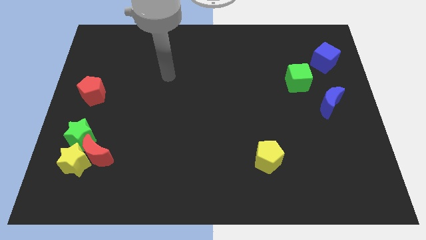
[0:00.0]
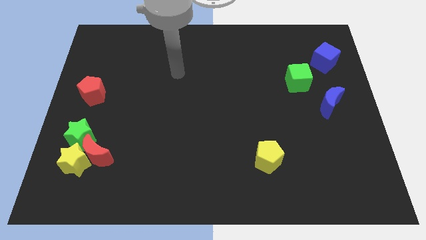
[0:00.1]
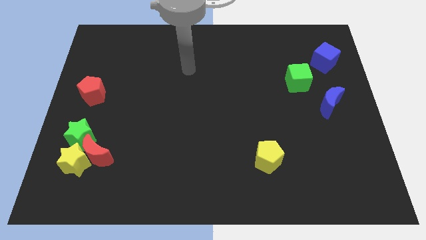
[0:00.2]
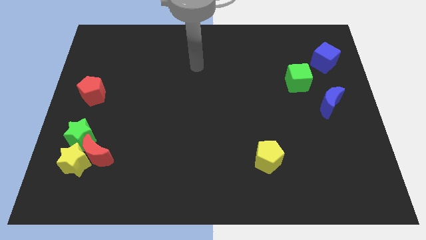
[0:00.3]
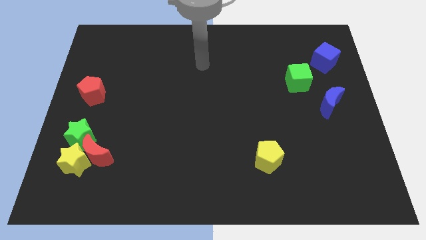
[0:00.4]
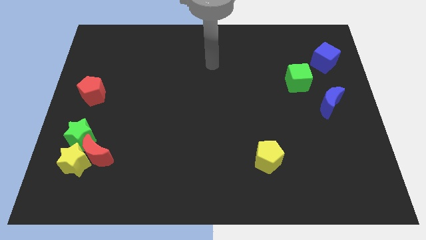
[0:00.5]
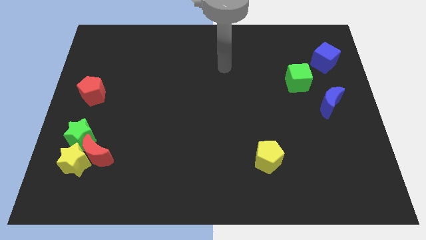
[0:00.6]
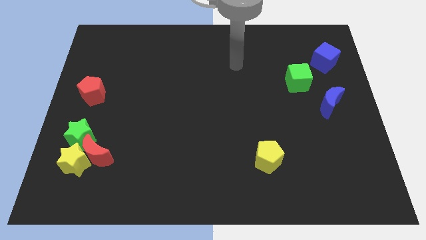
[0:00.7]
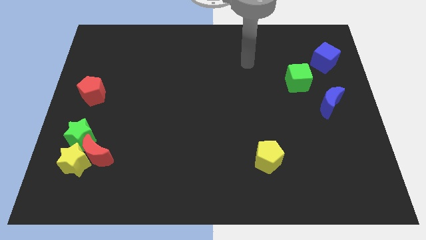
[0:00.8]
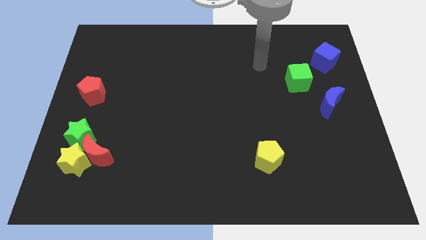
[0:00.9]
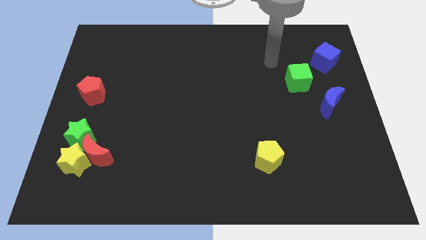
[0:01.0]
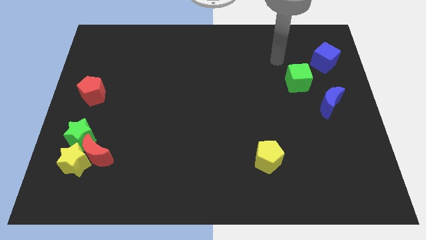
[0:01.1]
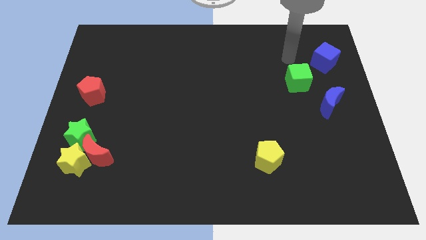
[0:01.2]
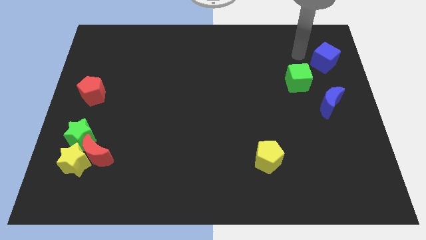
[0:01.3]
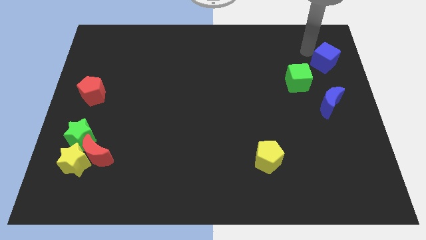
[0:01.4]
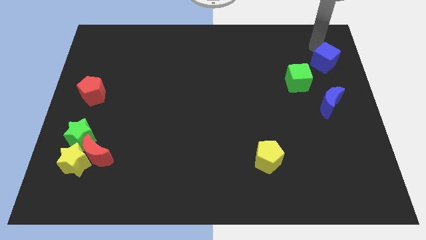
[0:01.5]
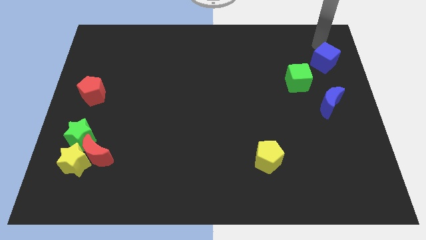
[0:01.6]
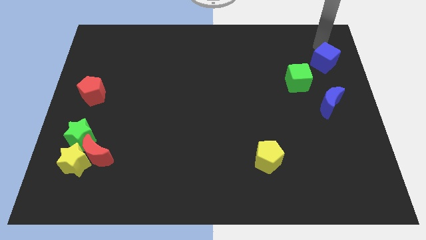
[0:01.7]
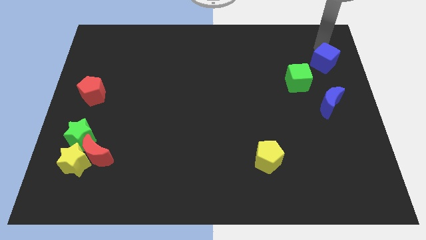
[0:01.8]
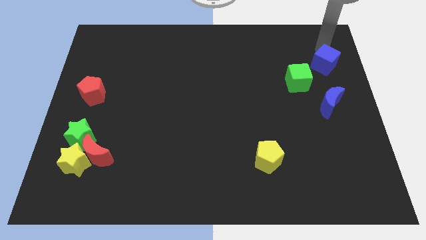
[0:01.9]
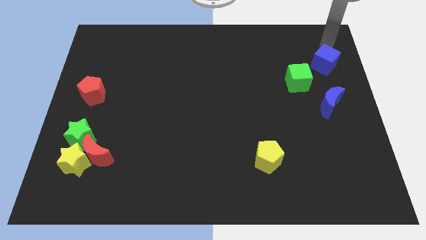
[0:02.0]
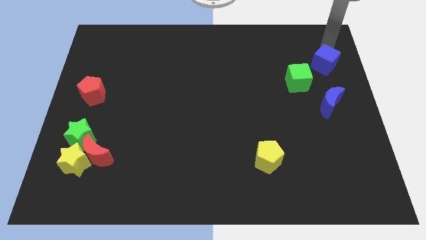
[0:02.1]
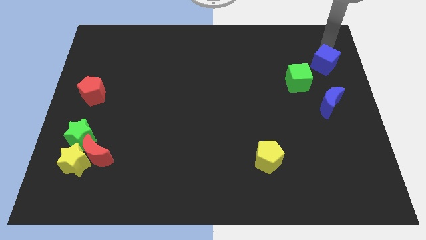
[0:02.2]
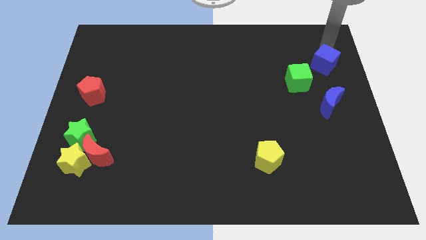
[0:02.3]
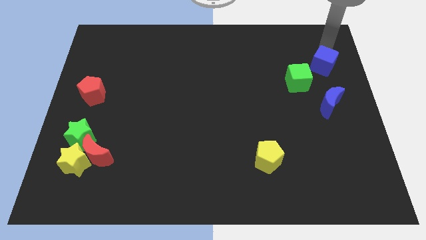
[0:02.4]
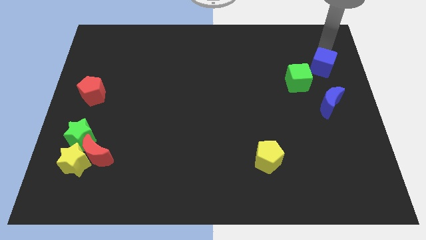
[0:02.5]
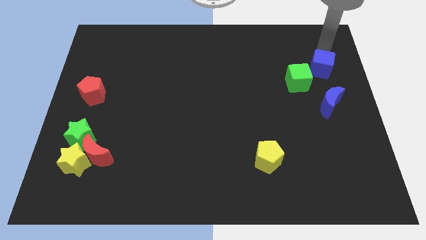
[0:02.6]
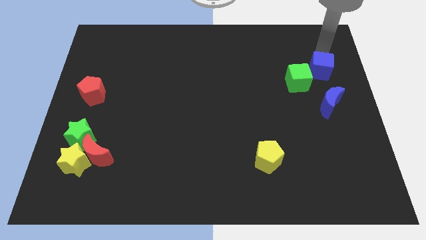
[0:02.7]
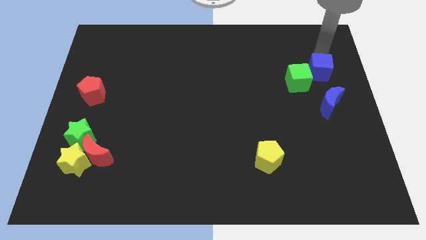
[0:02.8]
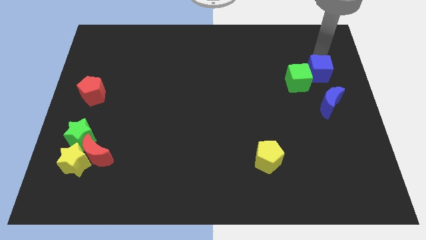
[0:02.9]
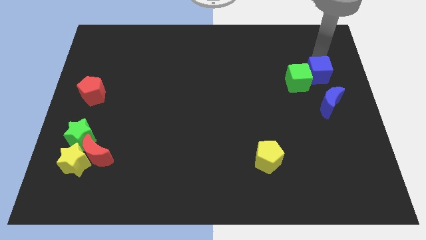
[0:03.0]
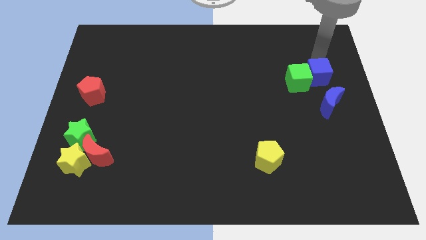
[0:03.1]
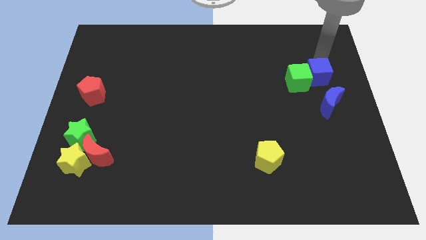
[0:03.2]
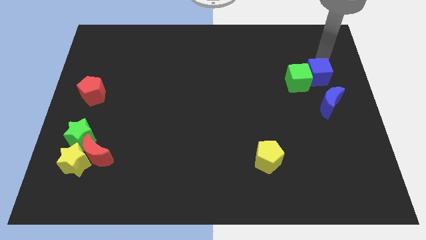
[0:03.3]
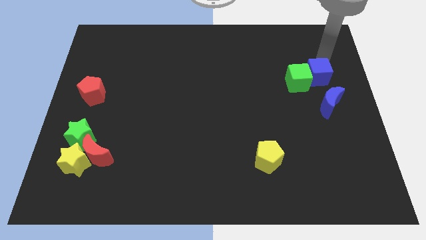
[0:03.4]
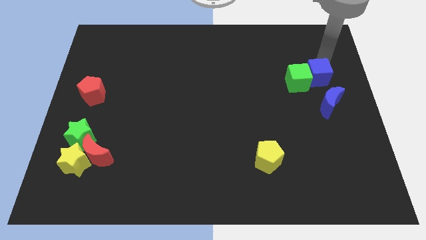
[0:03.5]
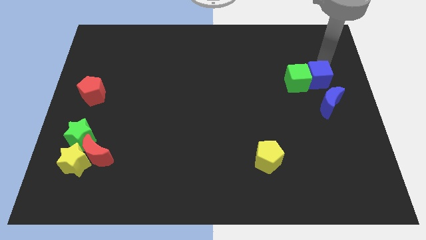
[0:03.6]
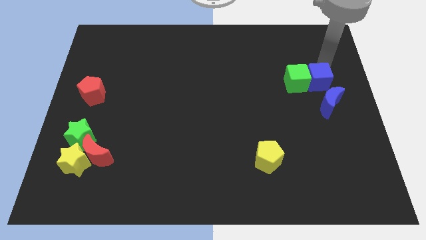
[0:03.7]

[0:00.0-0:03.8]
move the blue cube downwards and then left somewhat

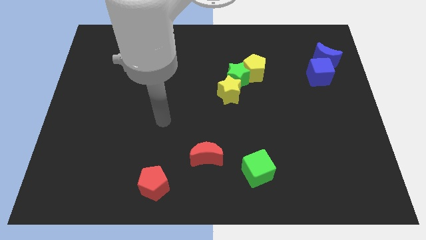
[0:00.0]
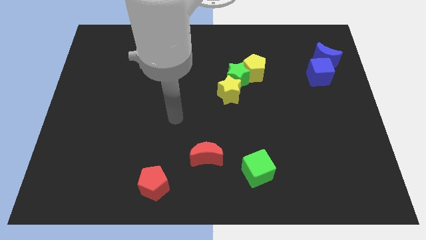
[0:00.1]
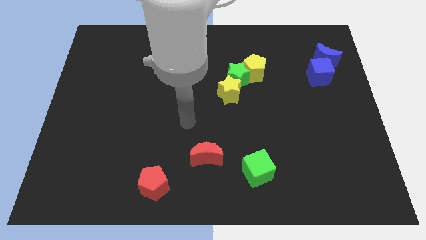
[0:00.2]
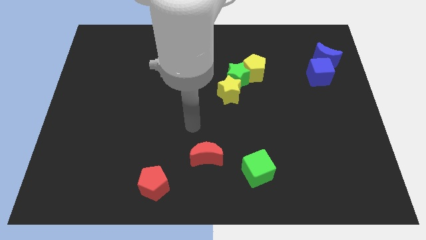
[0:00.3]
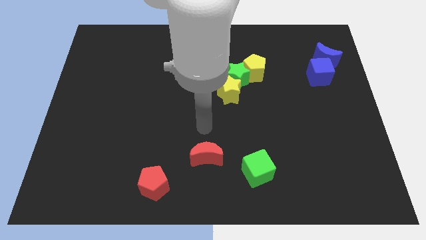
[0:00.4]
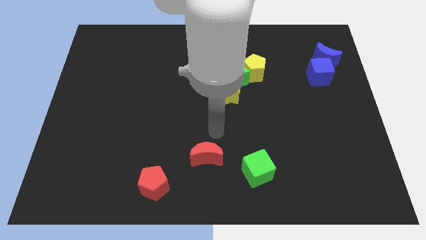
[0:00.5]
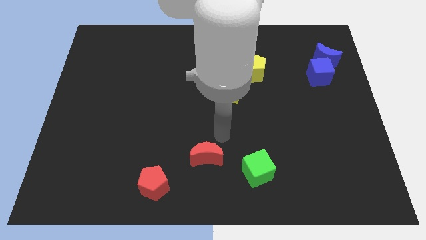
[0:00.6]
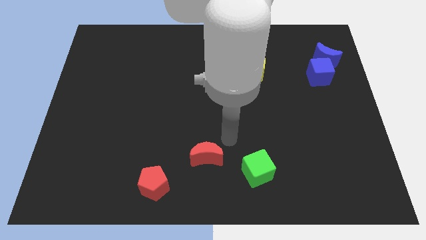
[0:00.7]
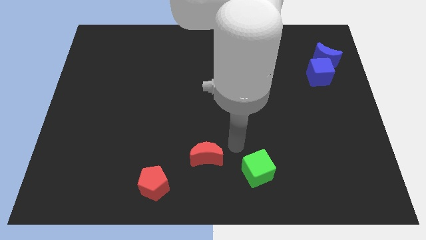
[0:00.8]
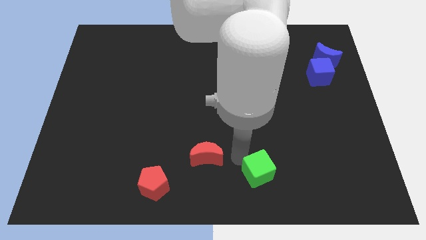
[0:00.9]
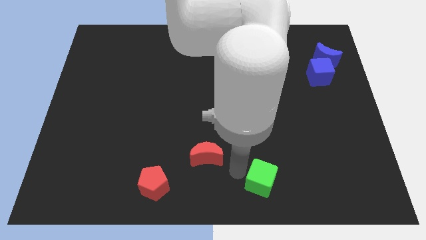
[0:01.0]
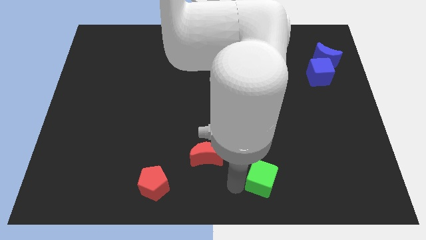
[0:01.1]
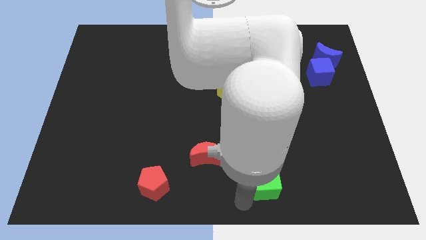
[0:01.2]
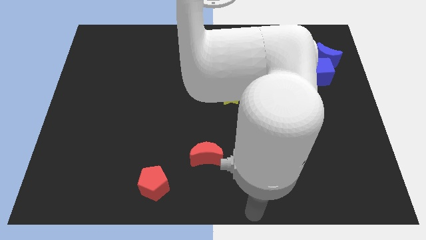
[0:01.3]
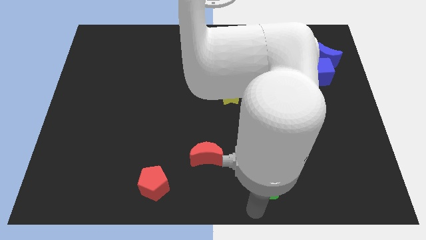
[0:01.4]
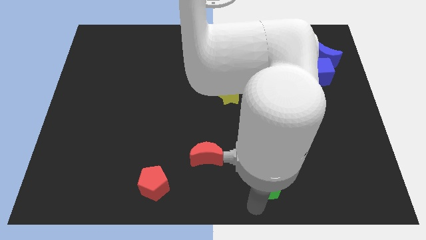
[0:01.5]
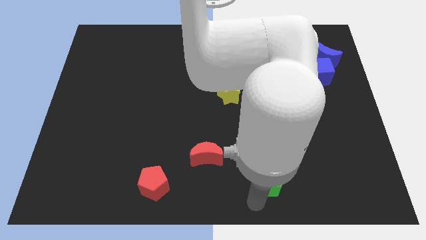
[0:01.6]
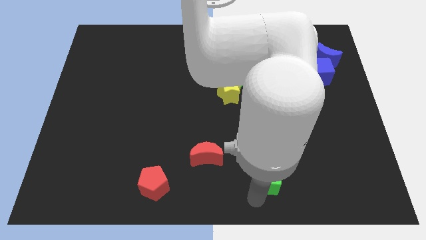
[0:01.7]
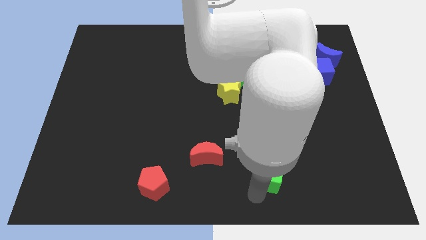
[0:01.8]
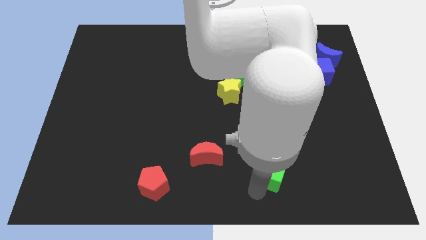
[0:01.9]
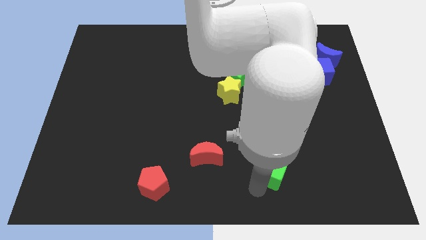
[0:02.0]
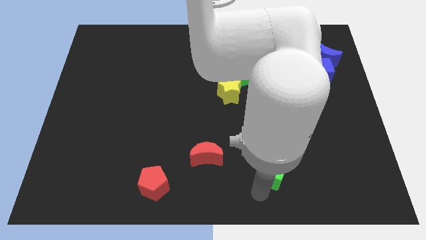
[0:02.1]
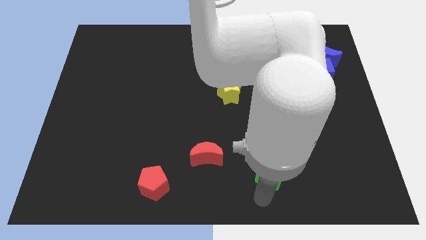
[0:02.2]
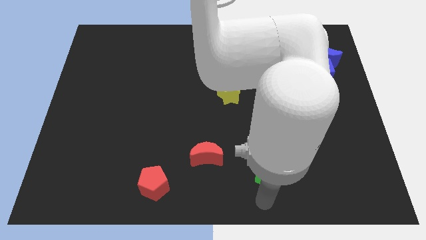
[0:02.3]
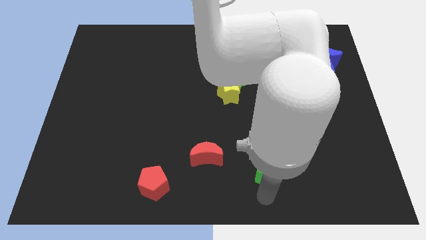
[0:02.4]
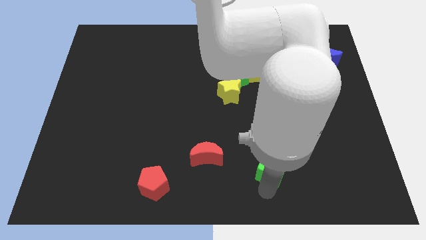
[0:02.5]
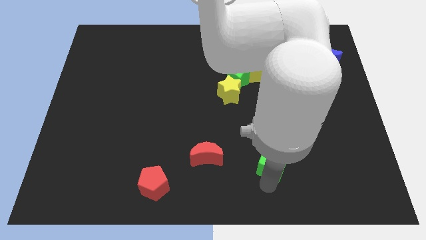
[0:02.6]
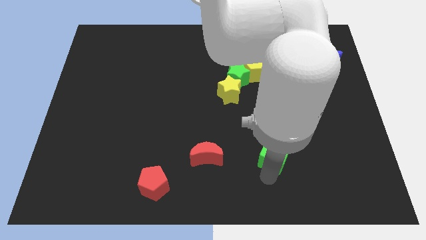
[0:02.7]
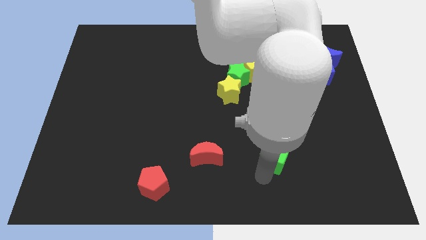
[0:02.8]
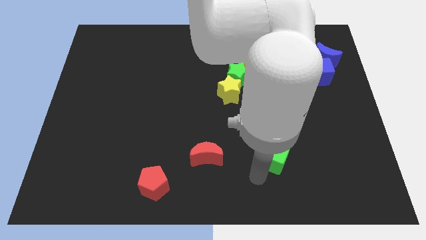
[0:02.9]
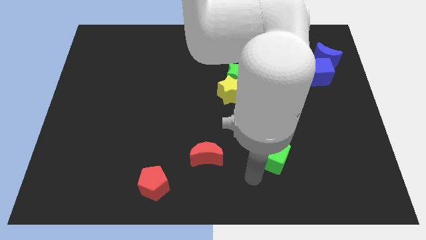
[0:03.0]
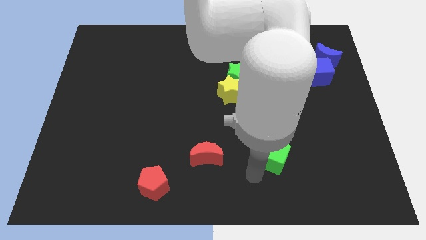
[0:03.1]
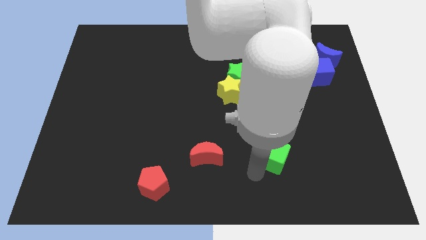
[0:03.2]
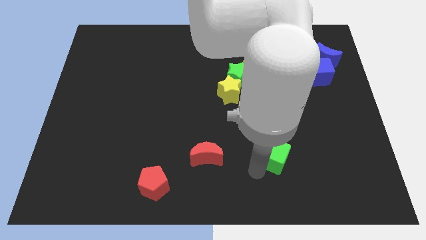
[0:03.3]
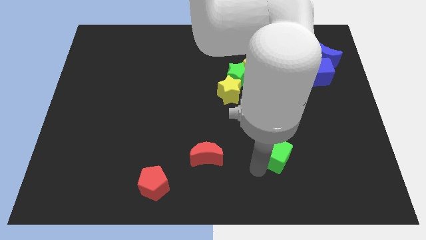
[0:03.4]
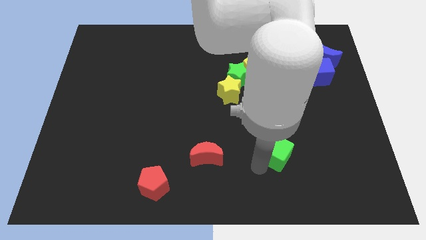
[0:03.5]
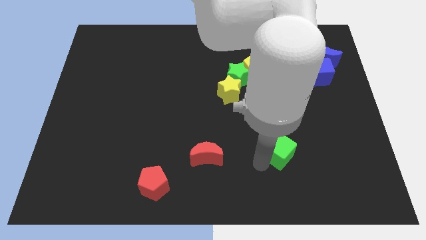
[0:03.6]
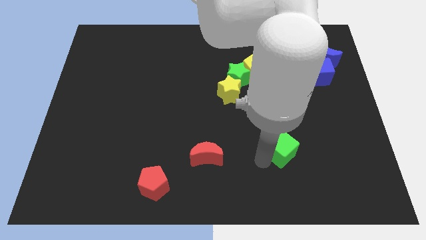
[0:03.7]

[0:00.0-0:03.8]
slide the green cube a little up and to the right

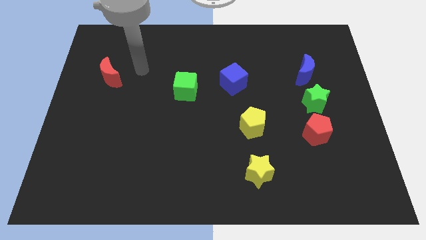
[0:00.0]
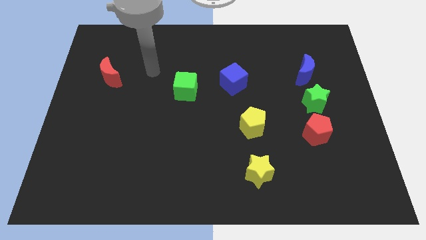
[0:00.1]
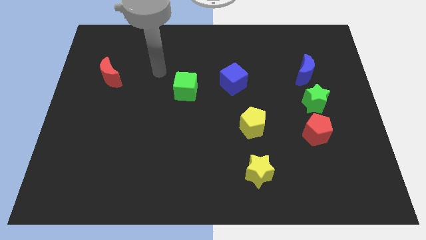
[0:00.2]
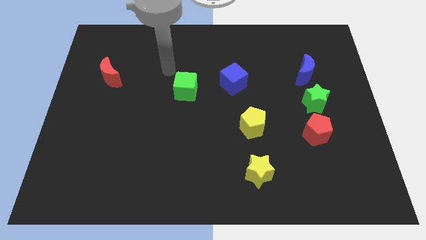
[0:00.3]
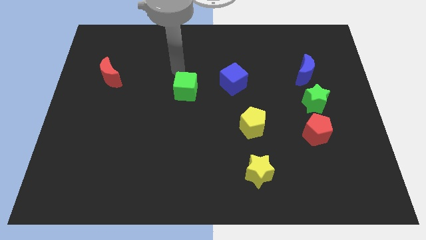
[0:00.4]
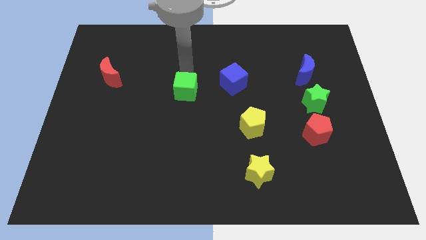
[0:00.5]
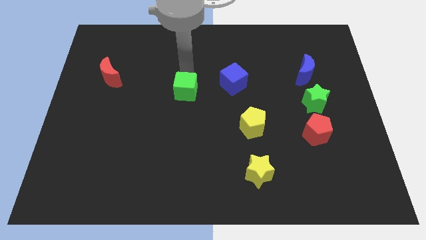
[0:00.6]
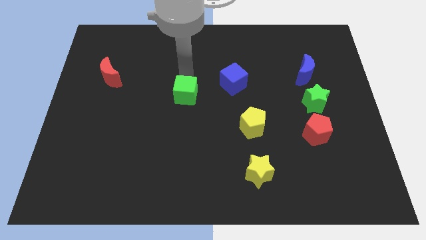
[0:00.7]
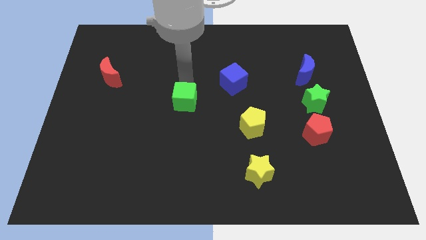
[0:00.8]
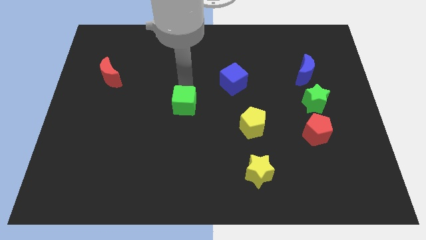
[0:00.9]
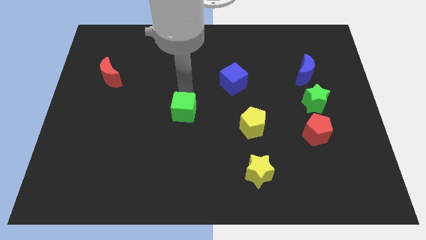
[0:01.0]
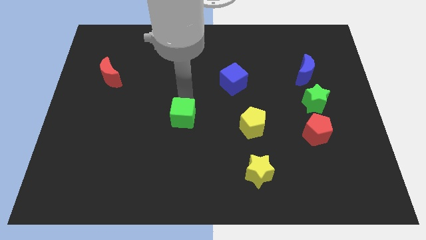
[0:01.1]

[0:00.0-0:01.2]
slightly move the green cube downwards
